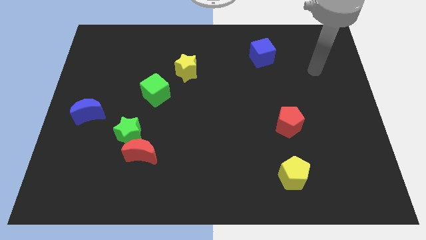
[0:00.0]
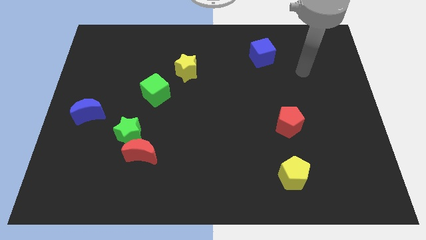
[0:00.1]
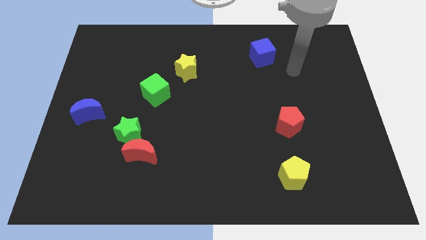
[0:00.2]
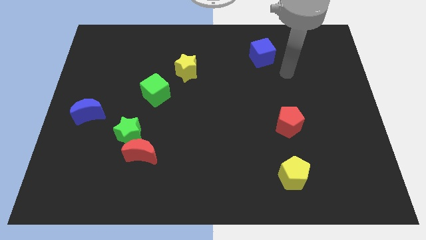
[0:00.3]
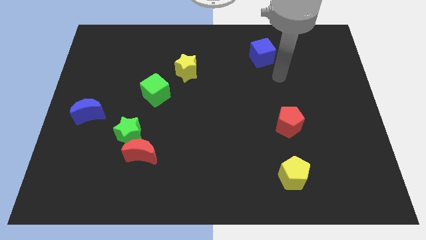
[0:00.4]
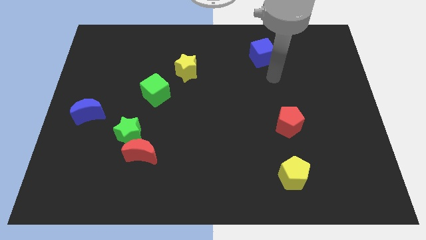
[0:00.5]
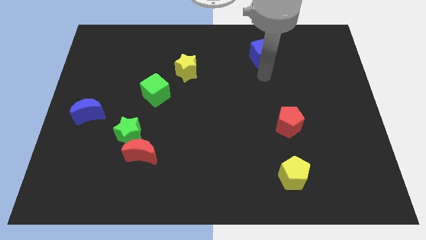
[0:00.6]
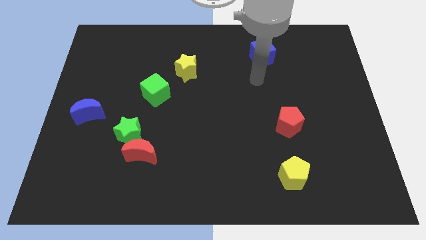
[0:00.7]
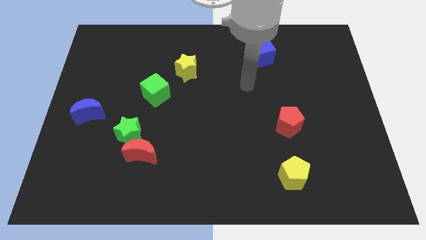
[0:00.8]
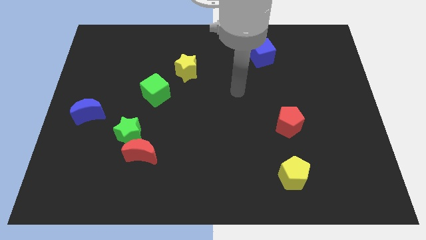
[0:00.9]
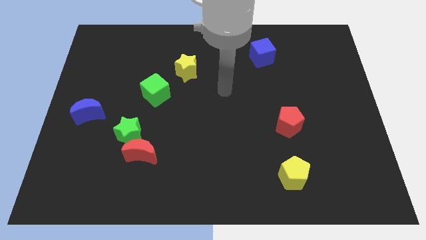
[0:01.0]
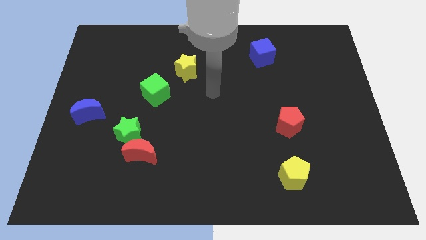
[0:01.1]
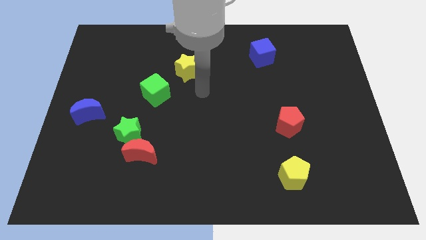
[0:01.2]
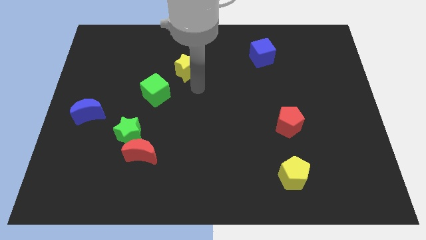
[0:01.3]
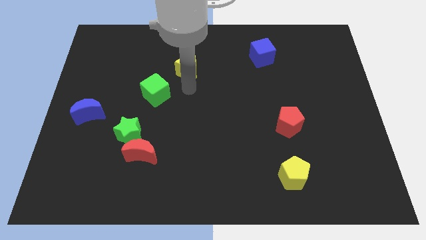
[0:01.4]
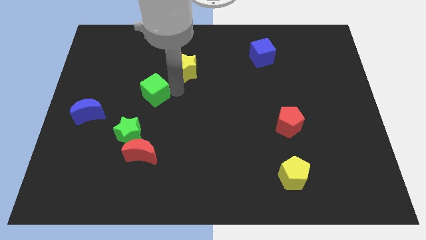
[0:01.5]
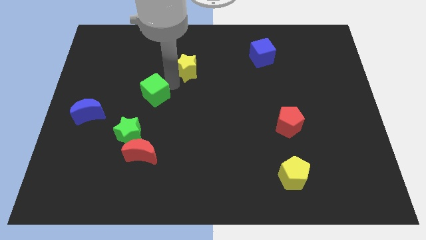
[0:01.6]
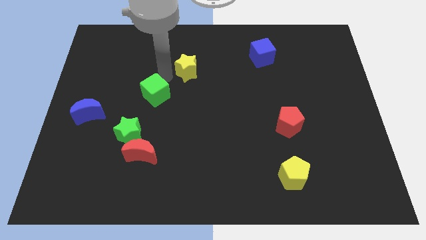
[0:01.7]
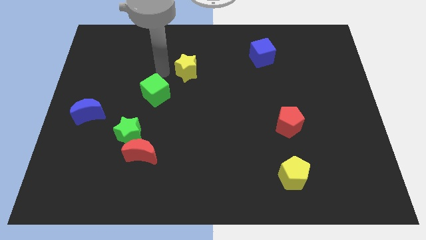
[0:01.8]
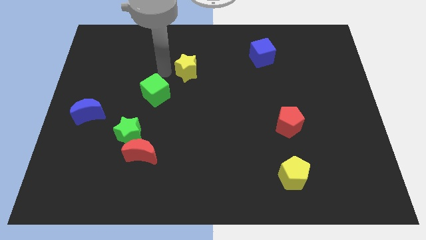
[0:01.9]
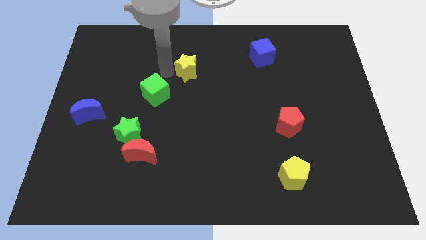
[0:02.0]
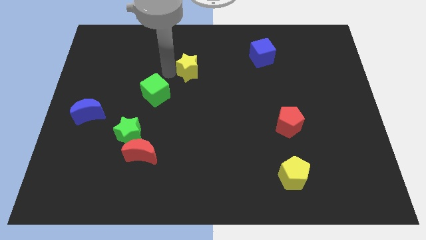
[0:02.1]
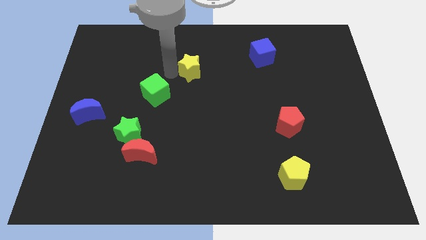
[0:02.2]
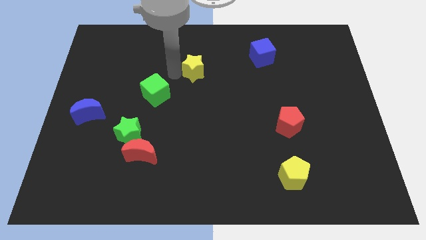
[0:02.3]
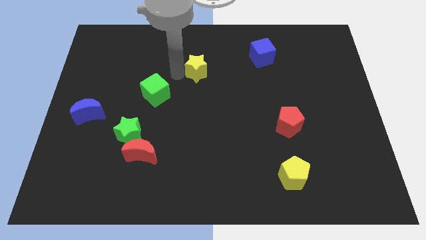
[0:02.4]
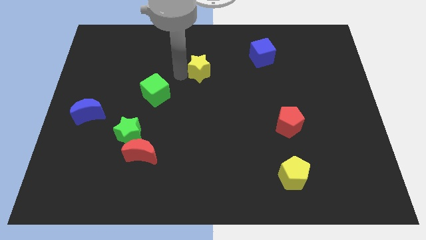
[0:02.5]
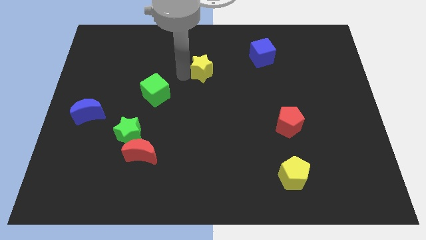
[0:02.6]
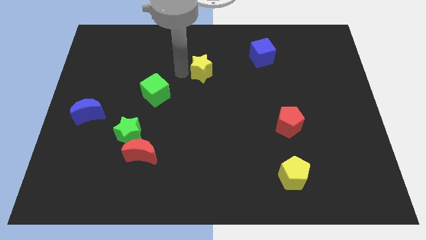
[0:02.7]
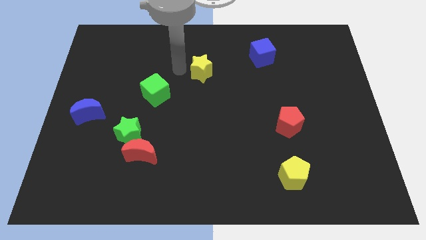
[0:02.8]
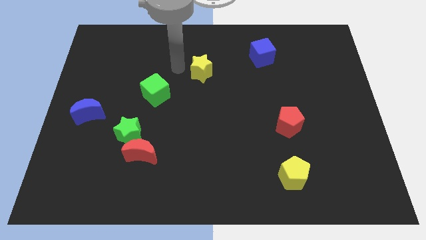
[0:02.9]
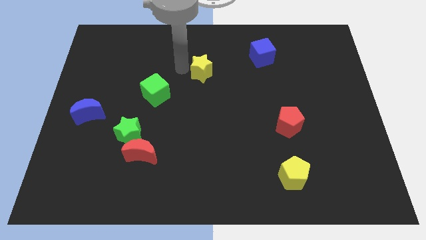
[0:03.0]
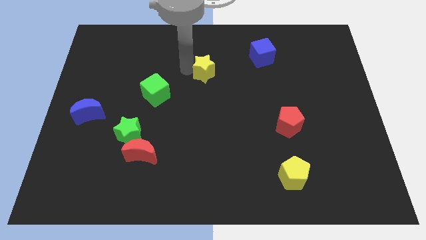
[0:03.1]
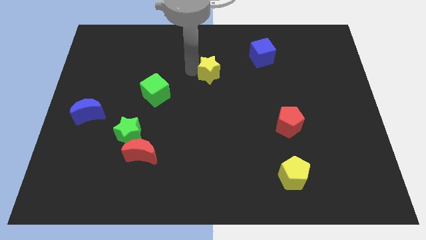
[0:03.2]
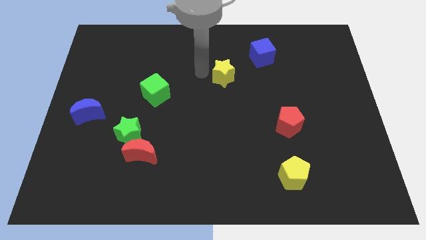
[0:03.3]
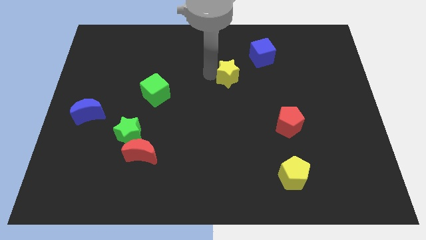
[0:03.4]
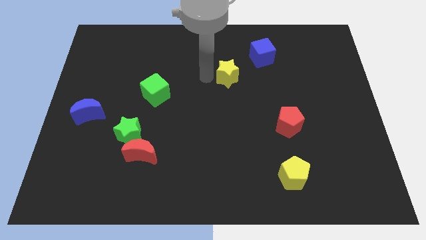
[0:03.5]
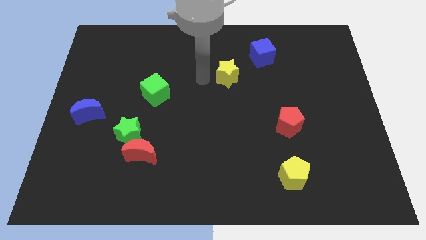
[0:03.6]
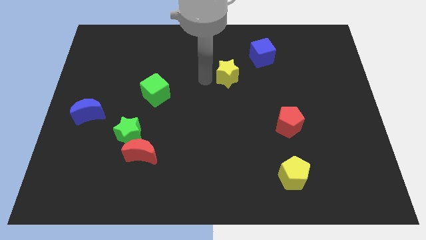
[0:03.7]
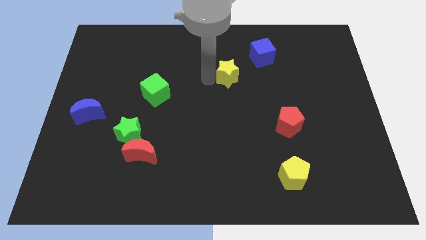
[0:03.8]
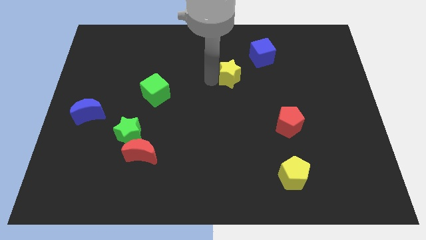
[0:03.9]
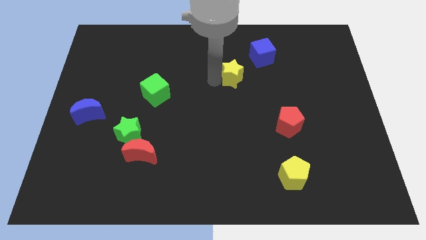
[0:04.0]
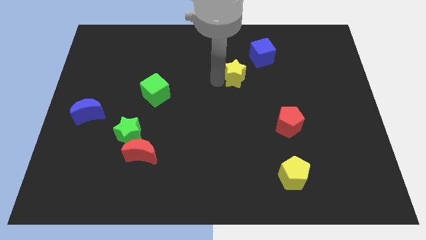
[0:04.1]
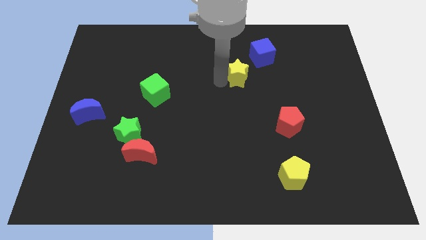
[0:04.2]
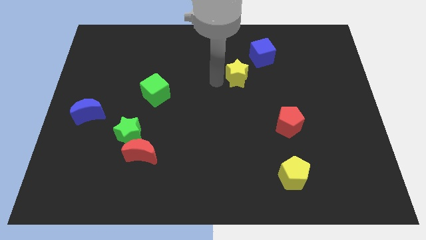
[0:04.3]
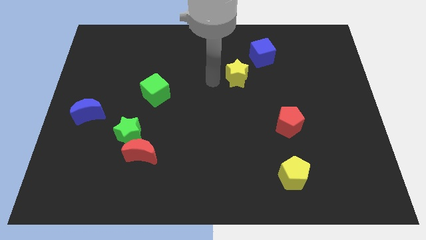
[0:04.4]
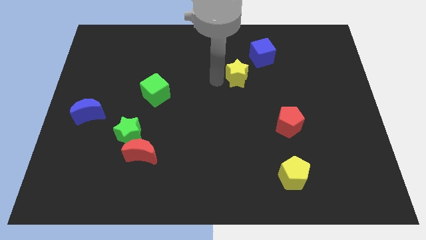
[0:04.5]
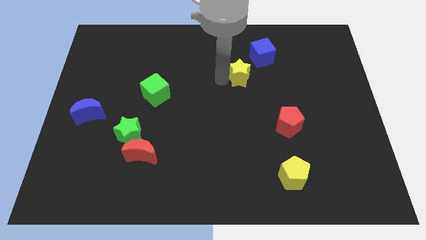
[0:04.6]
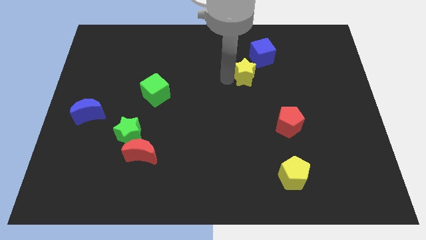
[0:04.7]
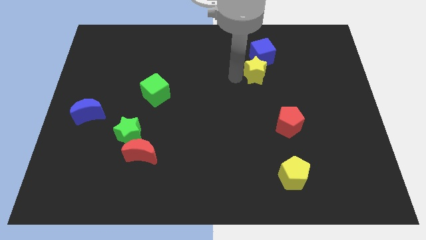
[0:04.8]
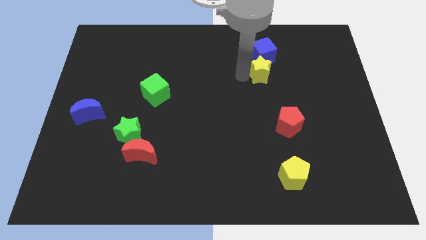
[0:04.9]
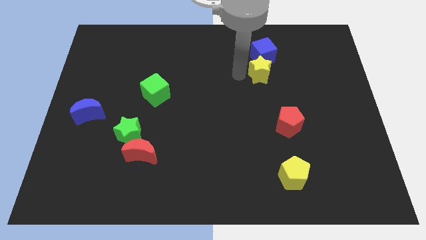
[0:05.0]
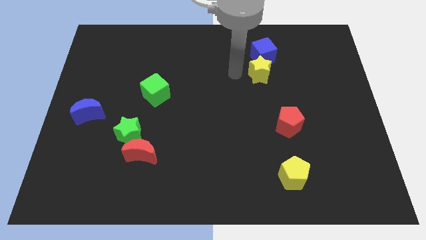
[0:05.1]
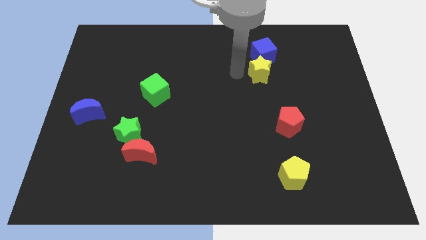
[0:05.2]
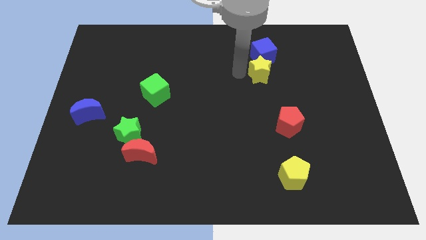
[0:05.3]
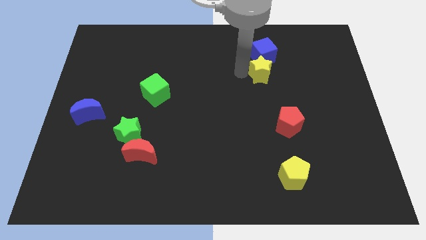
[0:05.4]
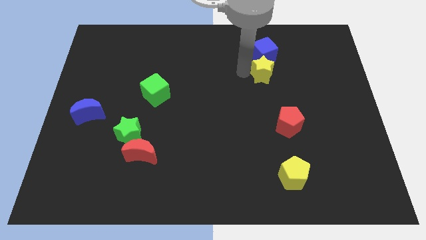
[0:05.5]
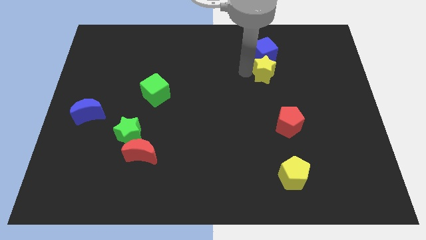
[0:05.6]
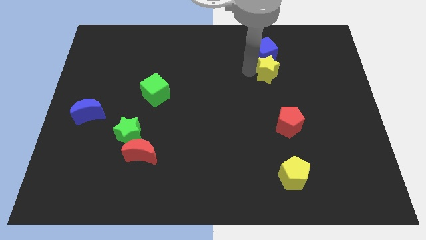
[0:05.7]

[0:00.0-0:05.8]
push the yellow star to the right

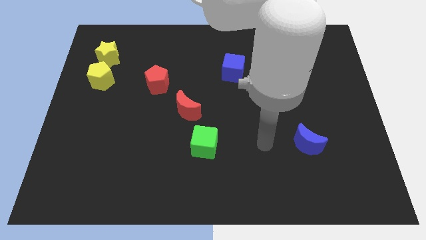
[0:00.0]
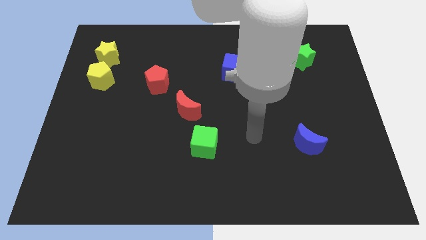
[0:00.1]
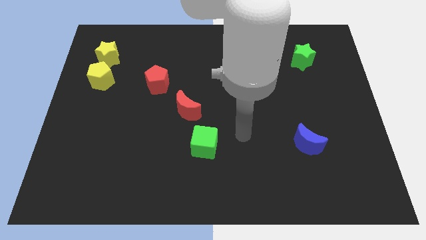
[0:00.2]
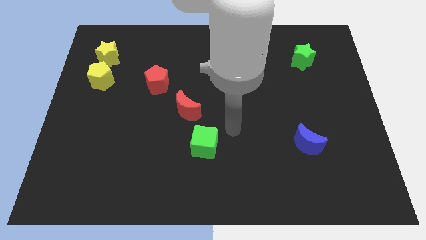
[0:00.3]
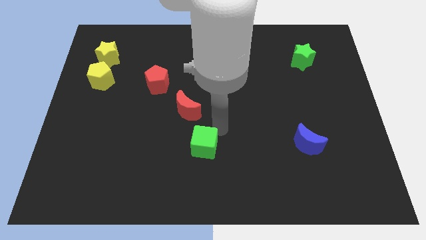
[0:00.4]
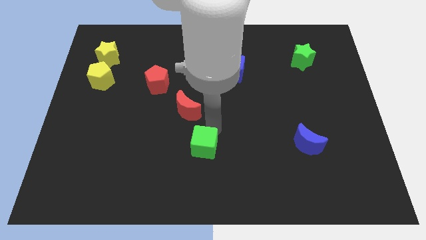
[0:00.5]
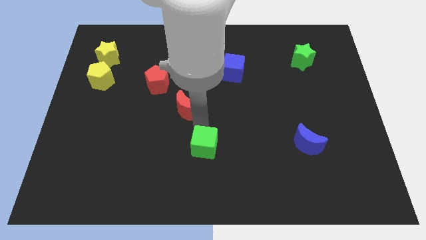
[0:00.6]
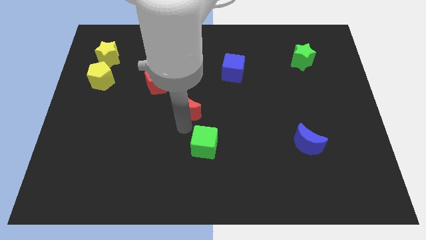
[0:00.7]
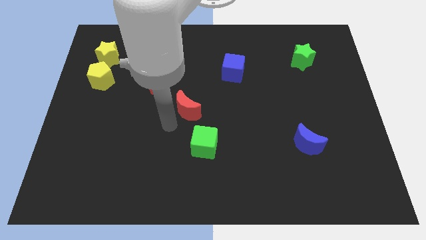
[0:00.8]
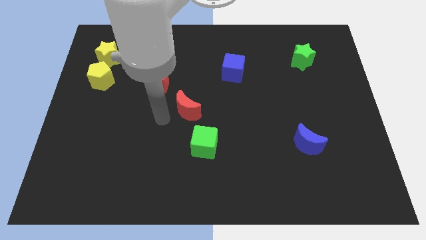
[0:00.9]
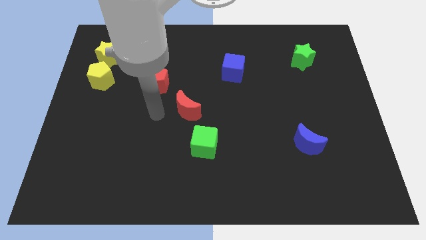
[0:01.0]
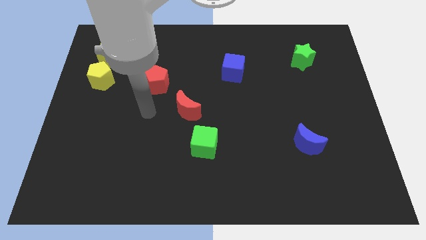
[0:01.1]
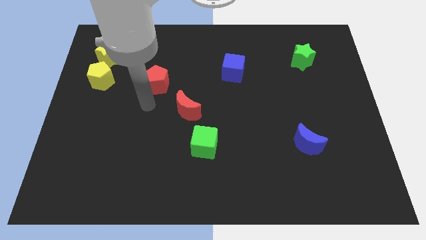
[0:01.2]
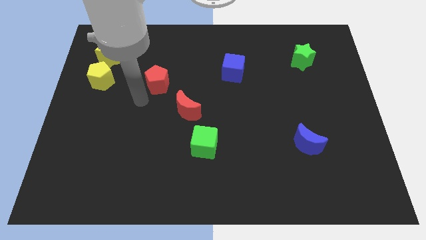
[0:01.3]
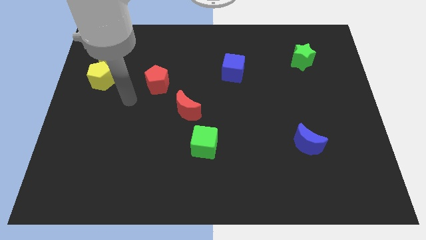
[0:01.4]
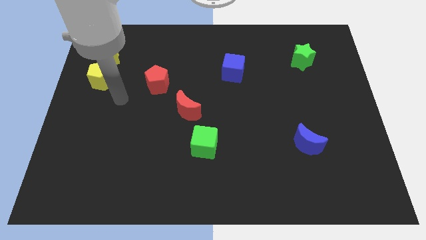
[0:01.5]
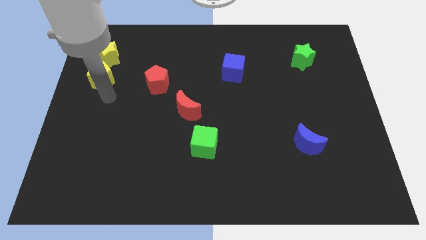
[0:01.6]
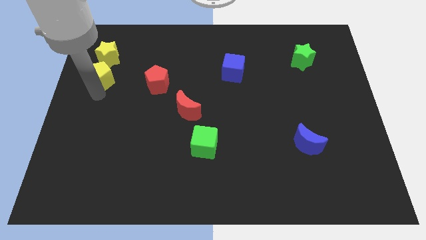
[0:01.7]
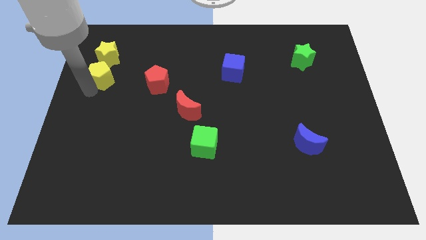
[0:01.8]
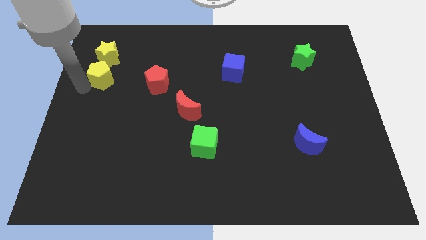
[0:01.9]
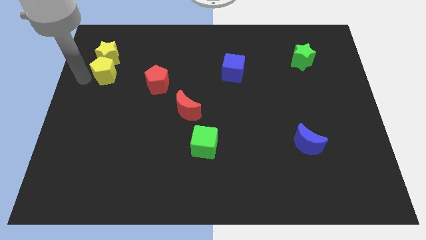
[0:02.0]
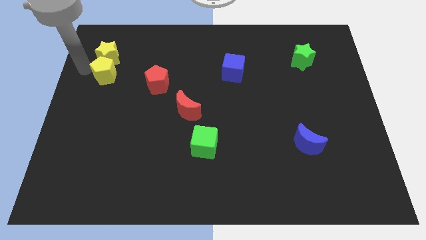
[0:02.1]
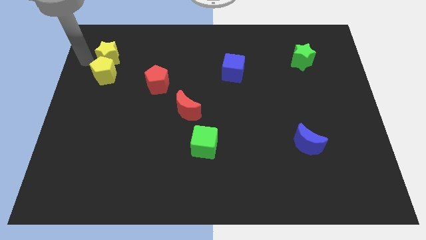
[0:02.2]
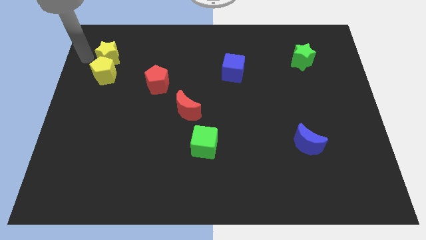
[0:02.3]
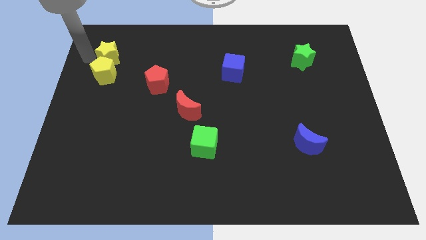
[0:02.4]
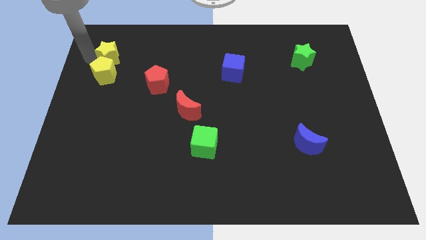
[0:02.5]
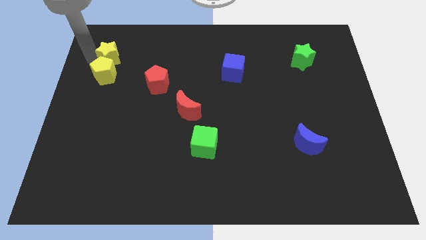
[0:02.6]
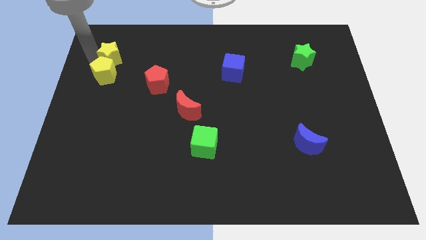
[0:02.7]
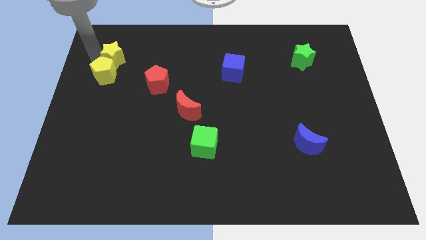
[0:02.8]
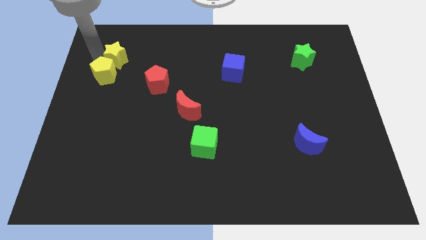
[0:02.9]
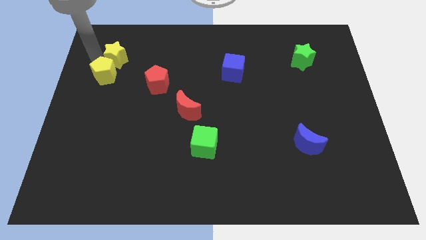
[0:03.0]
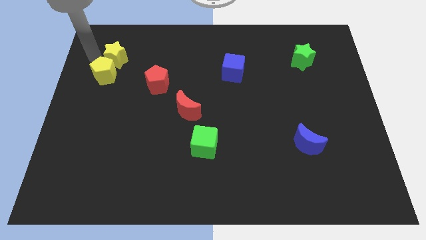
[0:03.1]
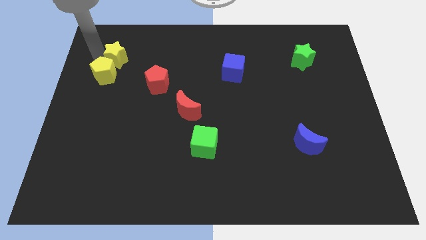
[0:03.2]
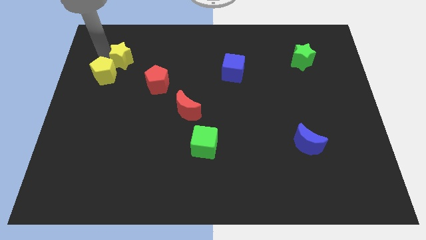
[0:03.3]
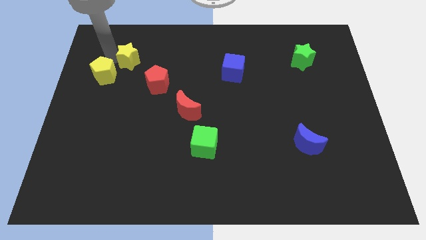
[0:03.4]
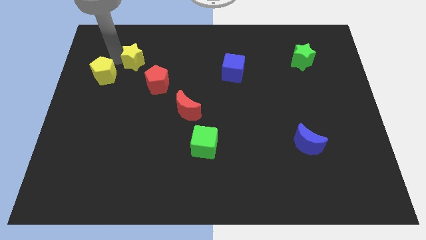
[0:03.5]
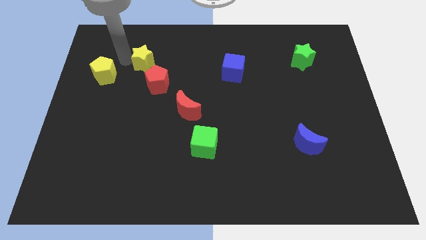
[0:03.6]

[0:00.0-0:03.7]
slide the yellow star right somewhat
